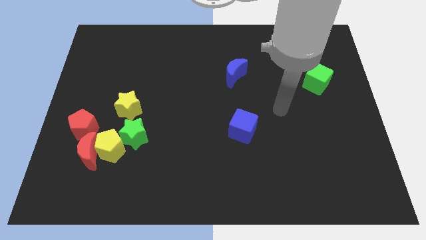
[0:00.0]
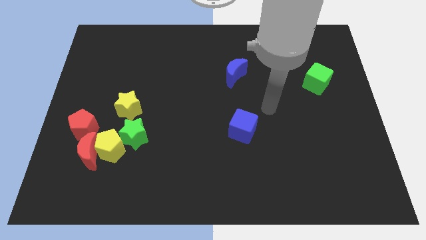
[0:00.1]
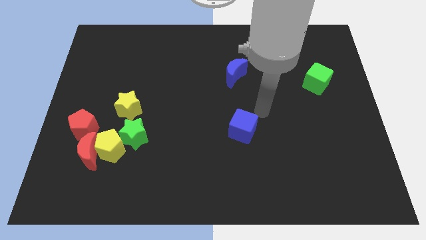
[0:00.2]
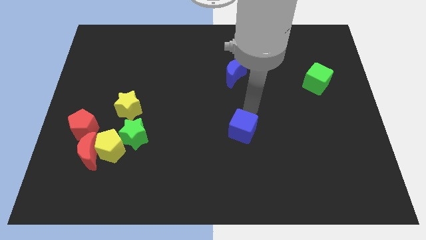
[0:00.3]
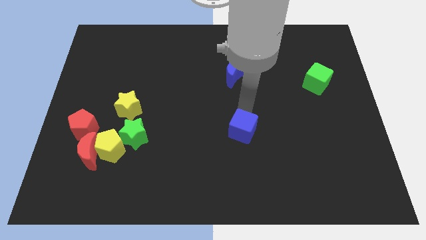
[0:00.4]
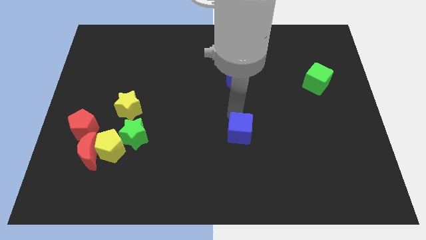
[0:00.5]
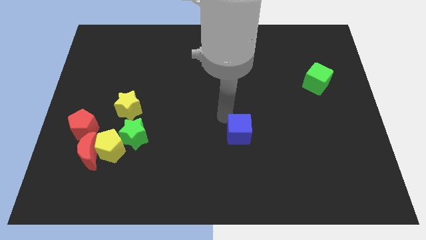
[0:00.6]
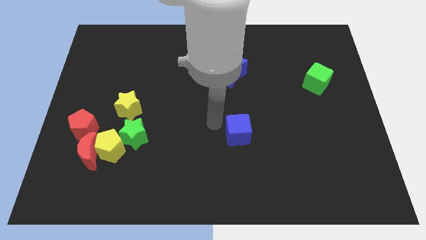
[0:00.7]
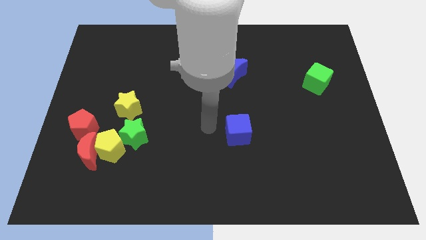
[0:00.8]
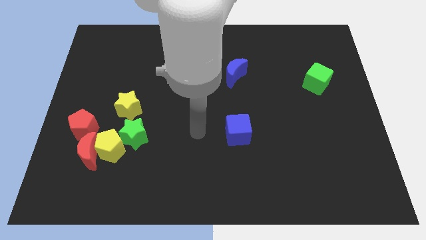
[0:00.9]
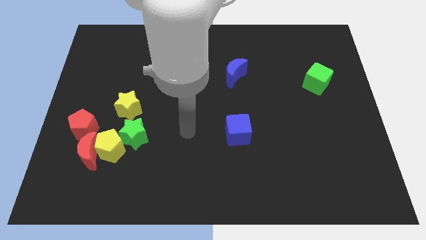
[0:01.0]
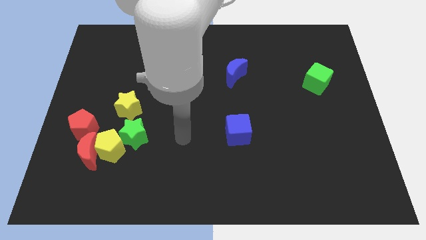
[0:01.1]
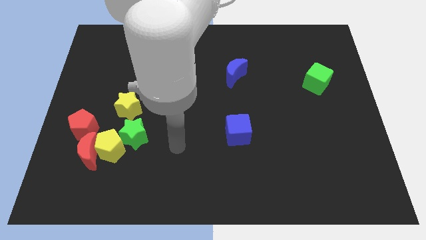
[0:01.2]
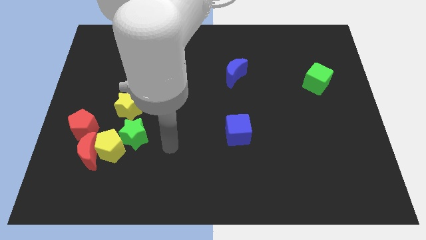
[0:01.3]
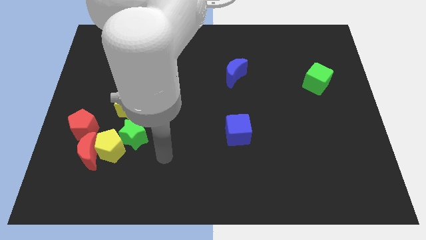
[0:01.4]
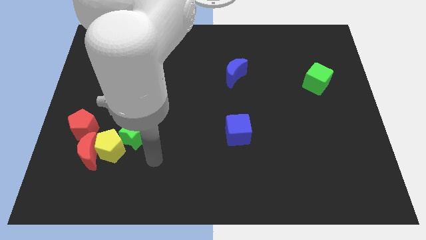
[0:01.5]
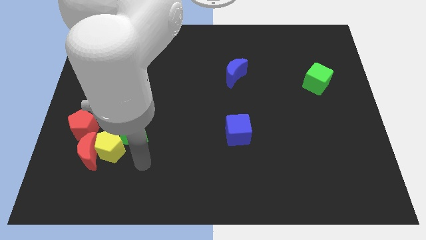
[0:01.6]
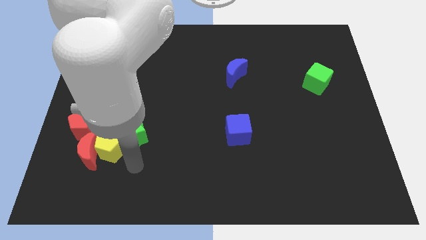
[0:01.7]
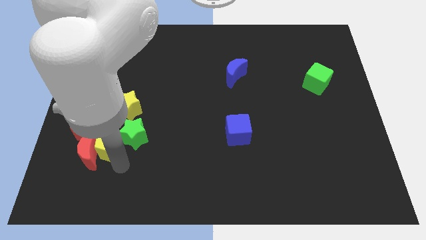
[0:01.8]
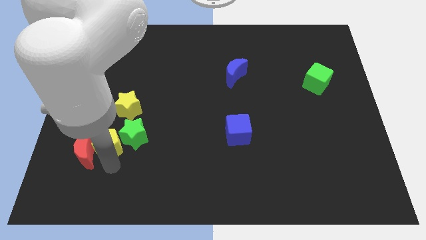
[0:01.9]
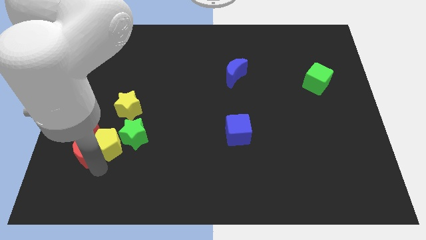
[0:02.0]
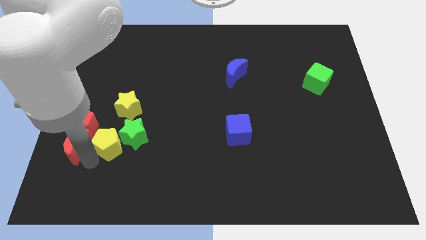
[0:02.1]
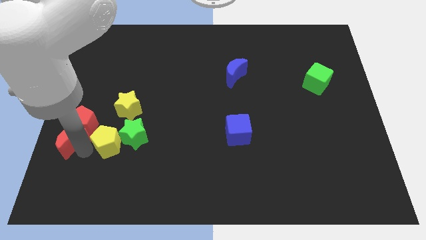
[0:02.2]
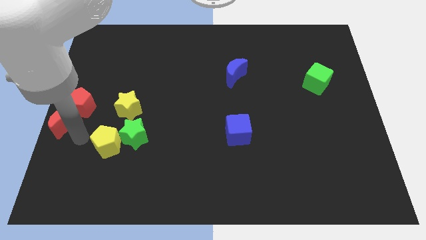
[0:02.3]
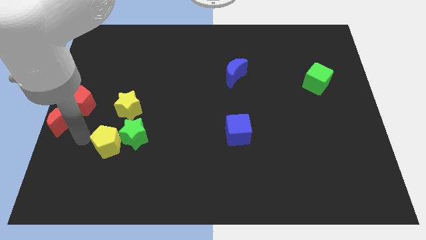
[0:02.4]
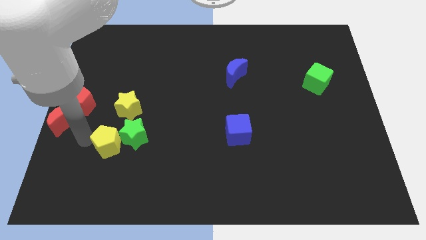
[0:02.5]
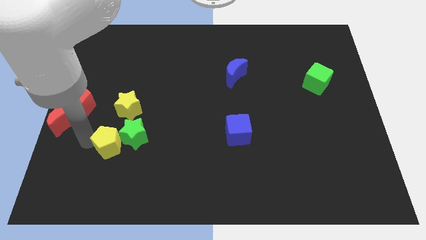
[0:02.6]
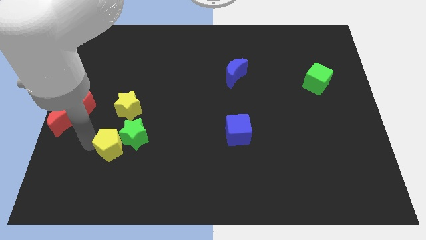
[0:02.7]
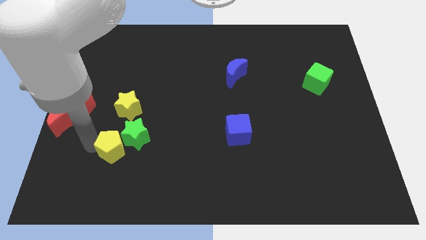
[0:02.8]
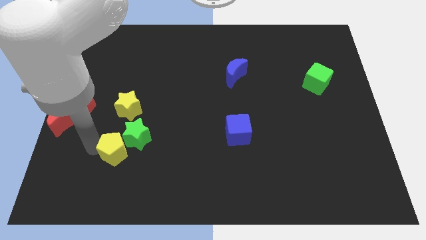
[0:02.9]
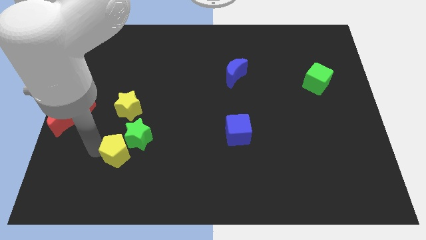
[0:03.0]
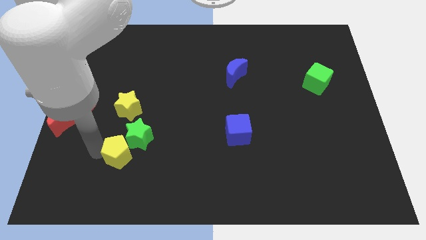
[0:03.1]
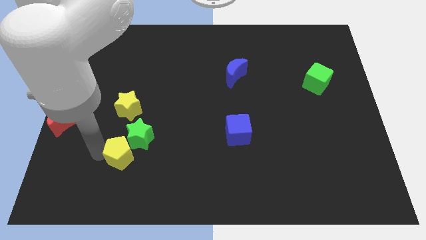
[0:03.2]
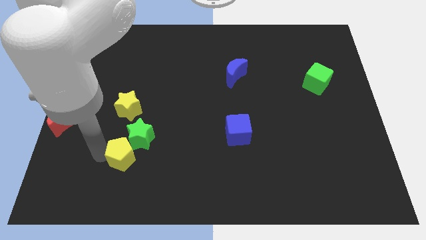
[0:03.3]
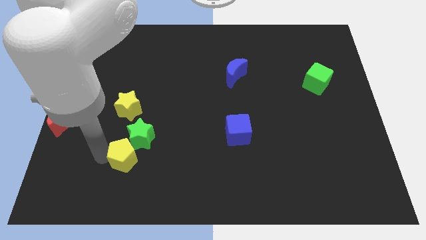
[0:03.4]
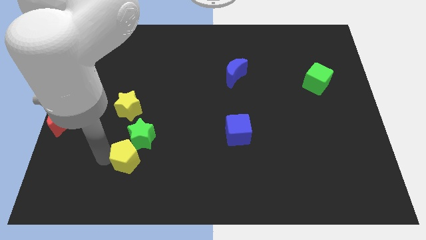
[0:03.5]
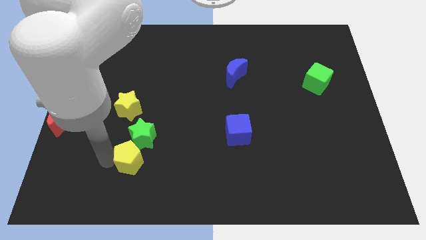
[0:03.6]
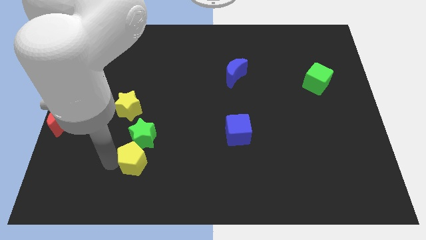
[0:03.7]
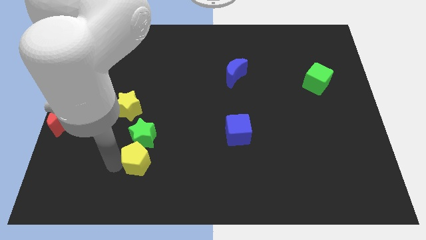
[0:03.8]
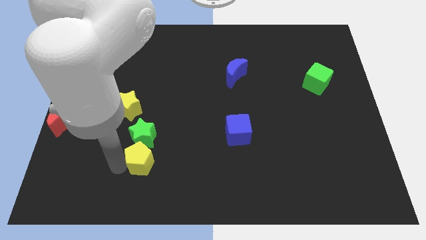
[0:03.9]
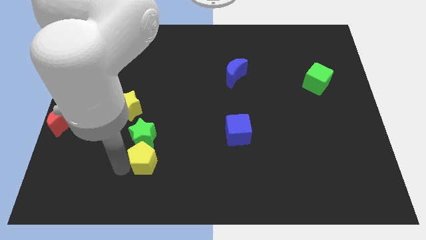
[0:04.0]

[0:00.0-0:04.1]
slightly move the yellow pentagon to the right

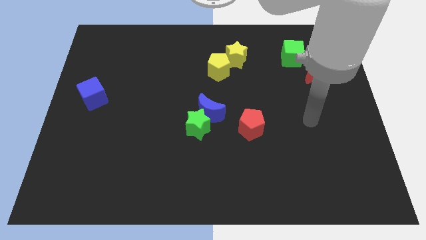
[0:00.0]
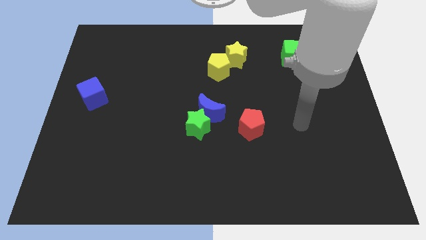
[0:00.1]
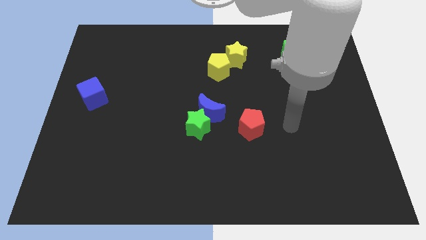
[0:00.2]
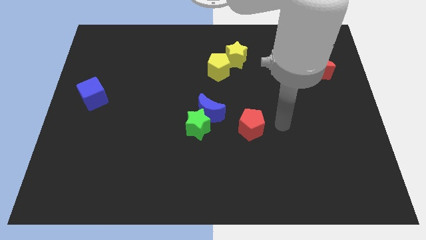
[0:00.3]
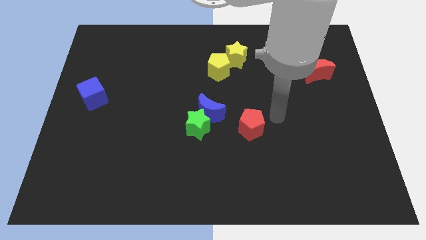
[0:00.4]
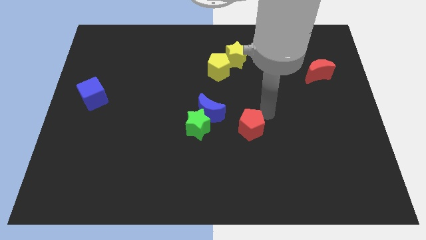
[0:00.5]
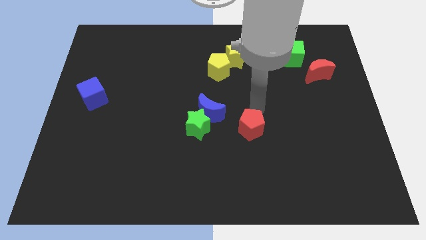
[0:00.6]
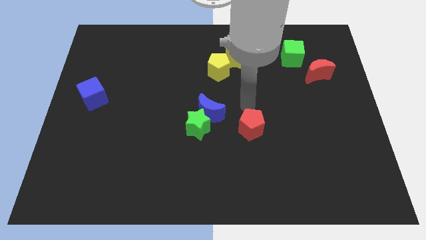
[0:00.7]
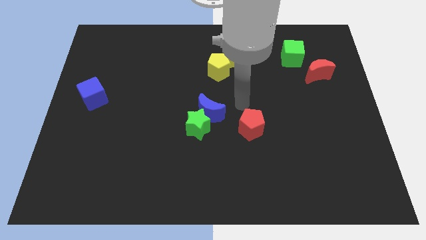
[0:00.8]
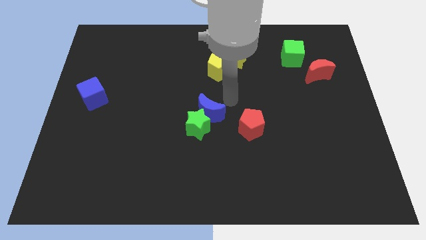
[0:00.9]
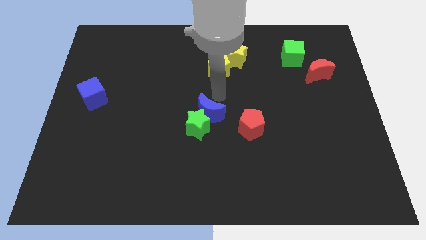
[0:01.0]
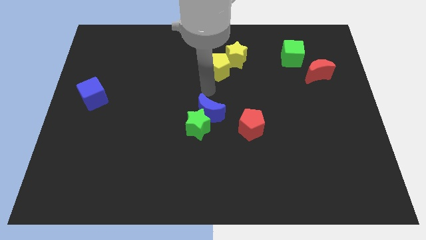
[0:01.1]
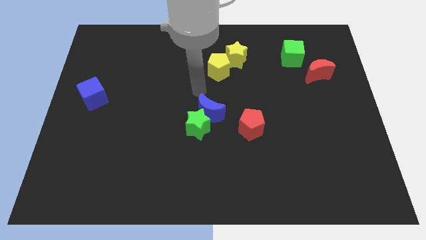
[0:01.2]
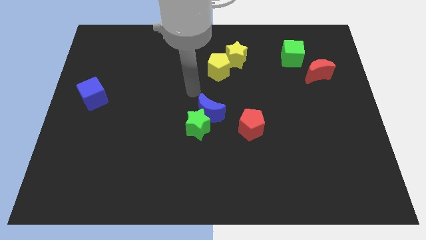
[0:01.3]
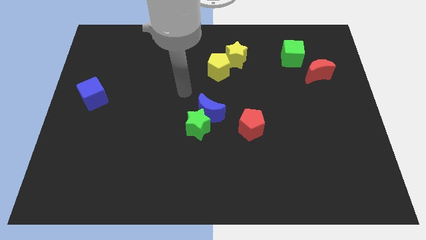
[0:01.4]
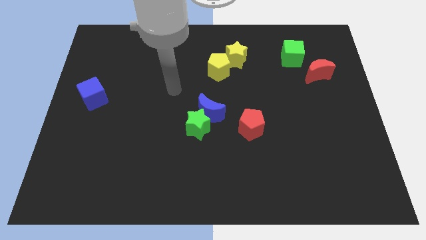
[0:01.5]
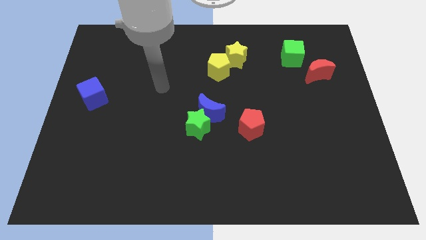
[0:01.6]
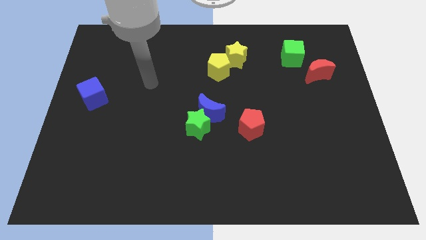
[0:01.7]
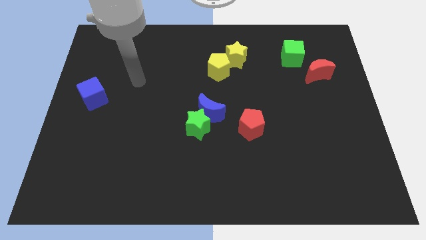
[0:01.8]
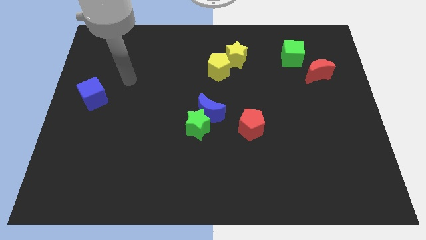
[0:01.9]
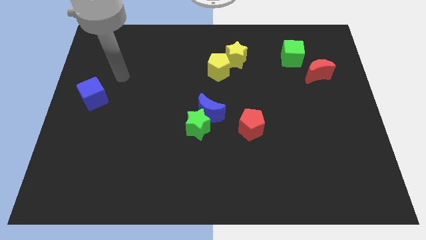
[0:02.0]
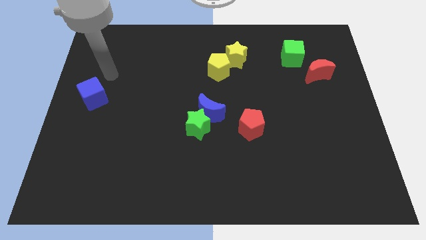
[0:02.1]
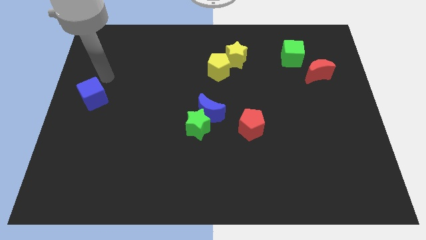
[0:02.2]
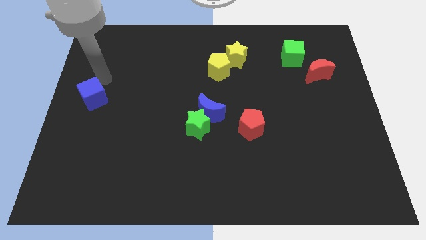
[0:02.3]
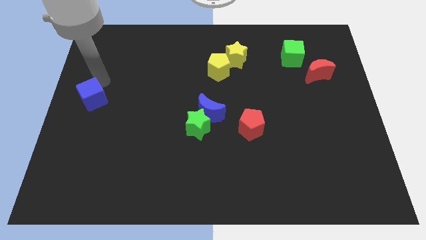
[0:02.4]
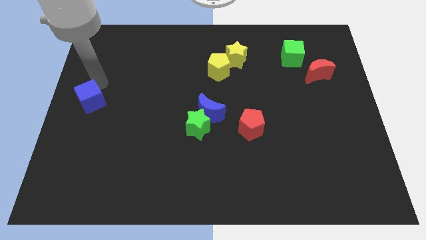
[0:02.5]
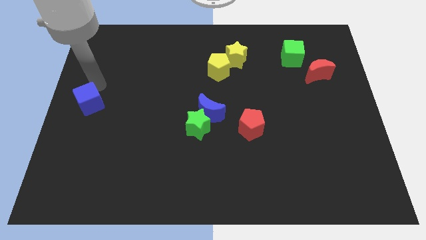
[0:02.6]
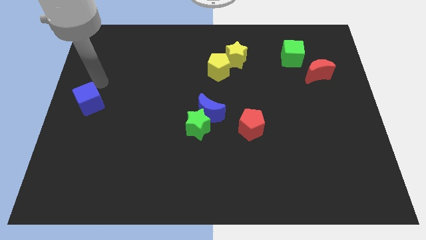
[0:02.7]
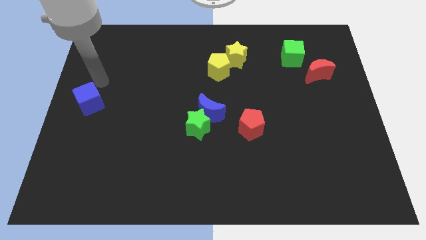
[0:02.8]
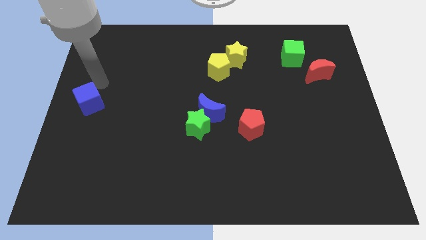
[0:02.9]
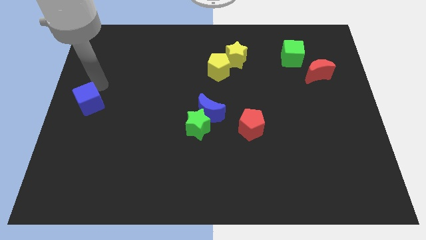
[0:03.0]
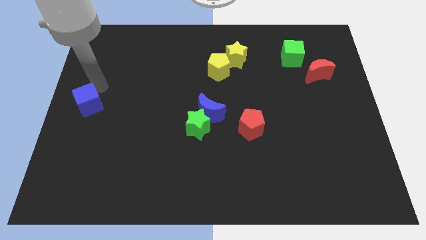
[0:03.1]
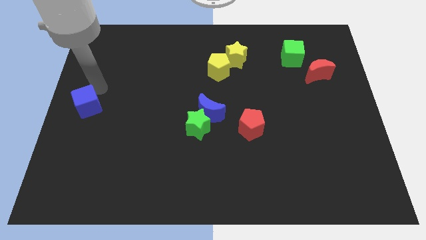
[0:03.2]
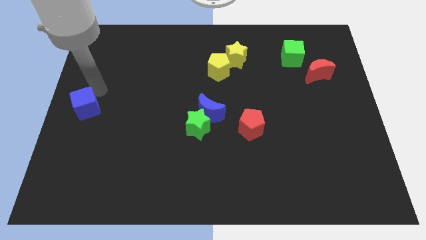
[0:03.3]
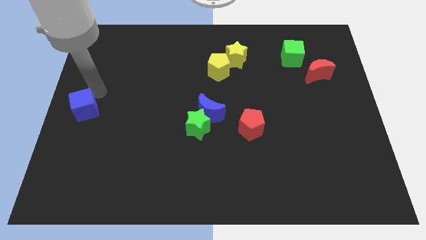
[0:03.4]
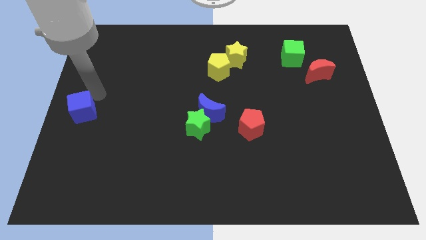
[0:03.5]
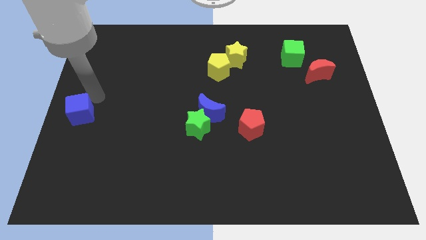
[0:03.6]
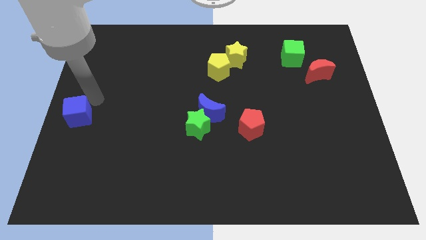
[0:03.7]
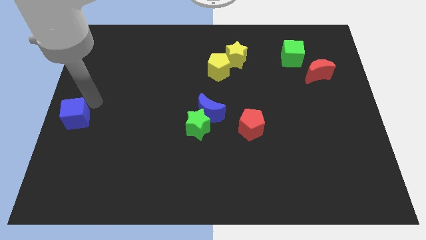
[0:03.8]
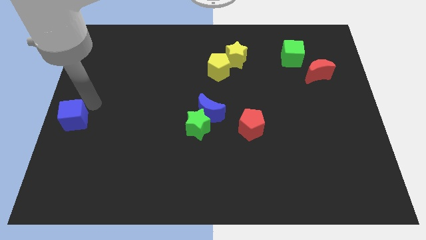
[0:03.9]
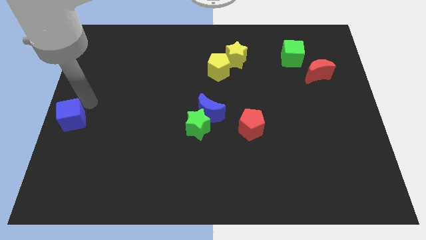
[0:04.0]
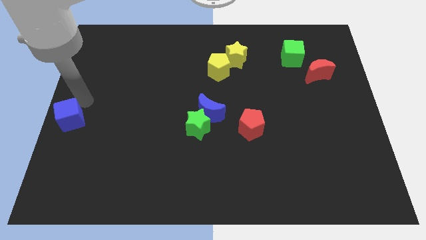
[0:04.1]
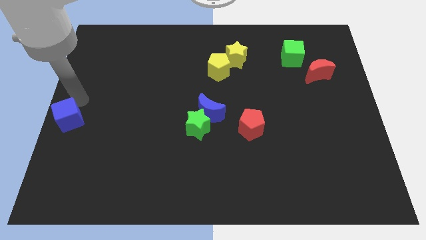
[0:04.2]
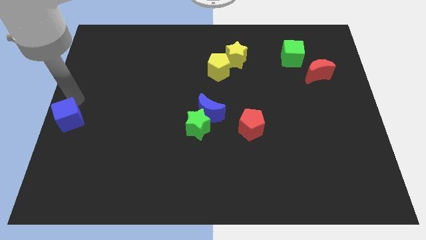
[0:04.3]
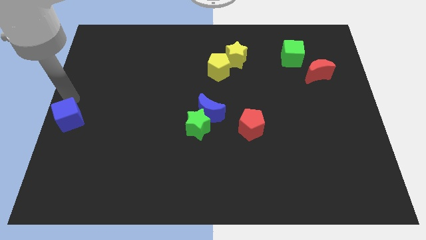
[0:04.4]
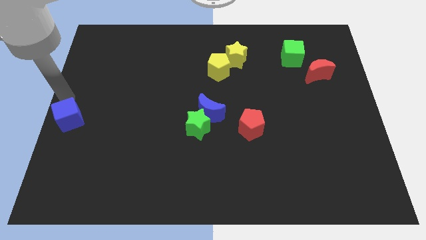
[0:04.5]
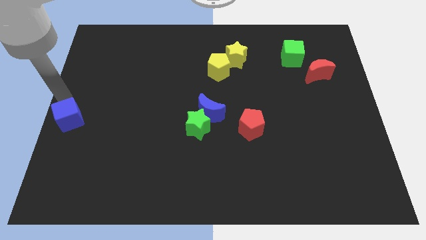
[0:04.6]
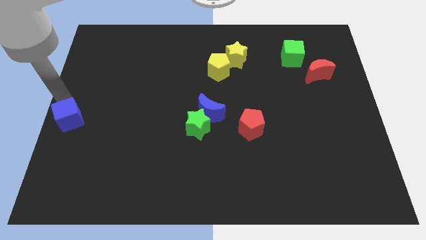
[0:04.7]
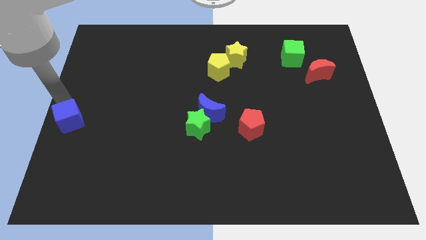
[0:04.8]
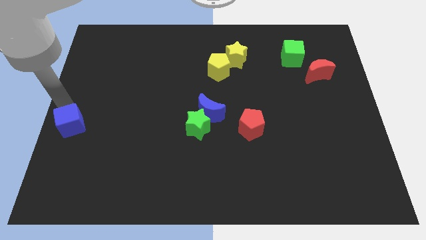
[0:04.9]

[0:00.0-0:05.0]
slightly push the blue cube downwards
